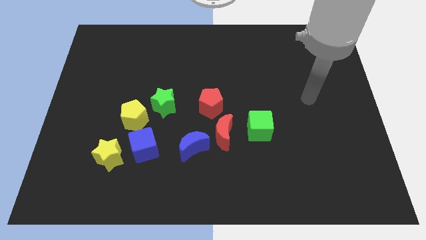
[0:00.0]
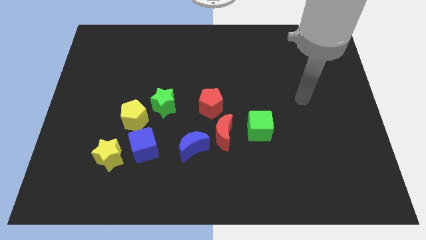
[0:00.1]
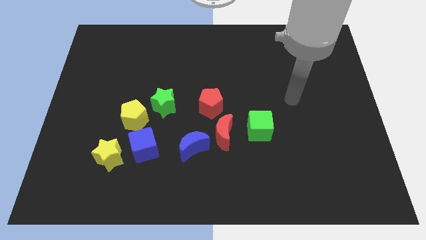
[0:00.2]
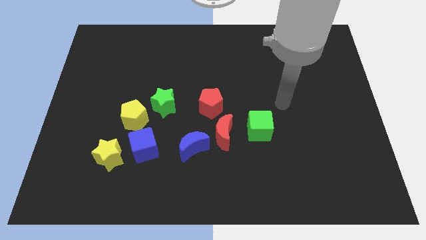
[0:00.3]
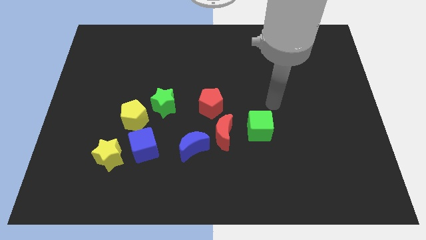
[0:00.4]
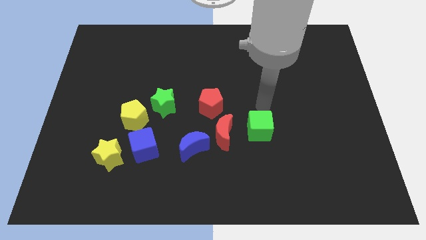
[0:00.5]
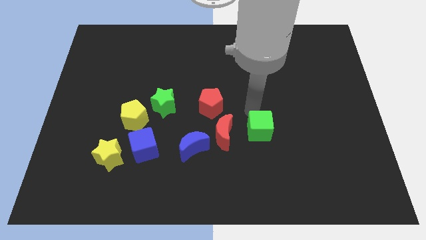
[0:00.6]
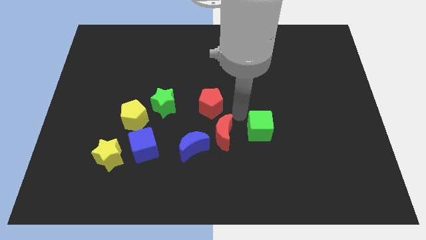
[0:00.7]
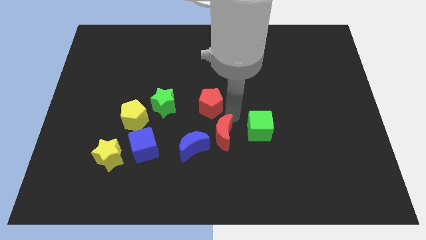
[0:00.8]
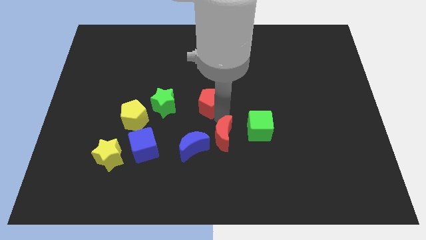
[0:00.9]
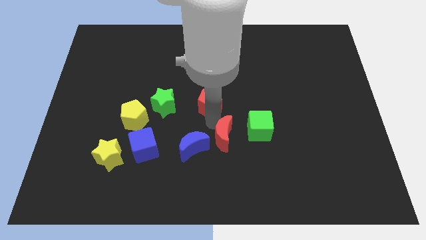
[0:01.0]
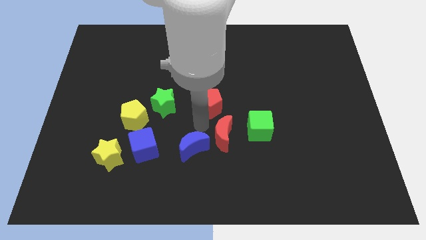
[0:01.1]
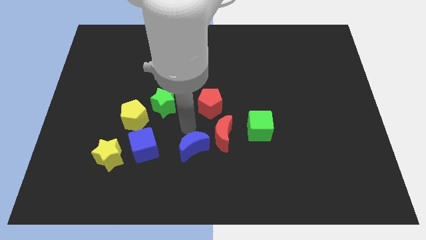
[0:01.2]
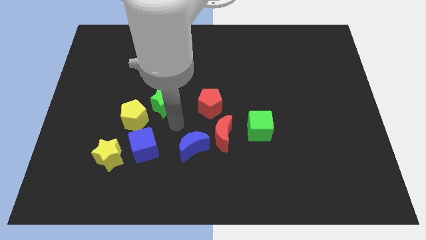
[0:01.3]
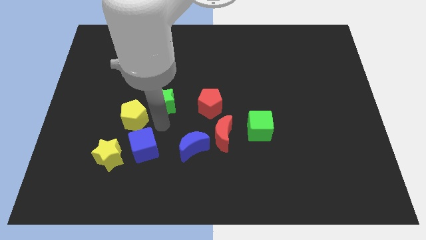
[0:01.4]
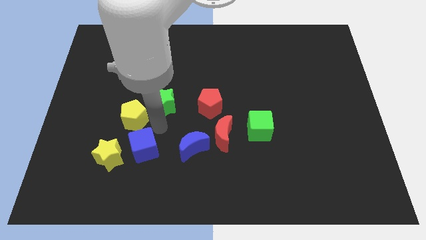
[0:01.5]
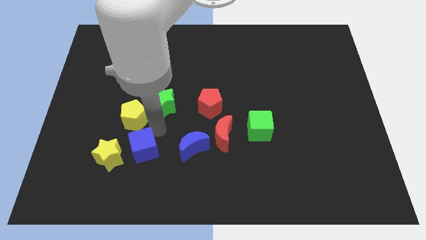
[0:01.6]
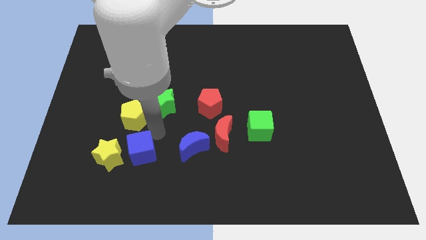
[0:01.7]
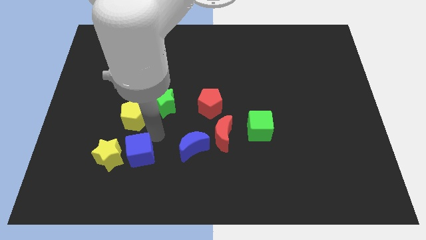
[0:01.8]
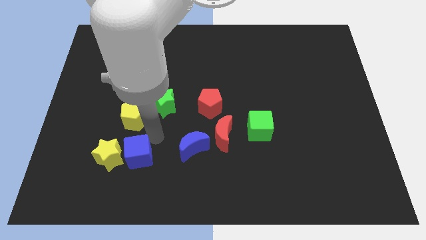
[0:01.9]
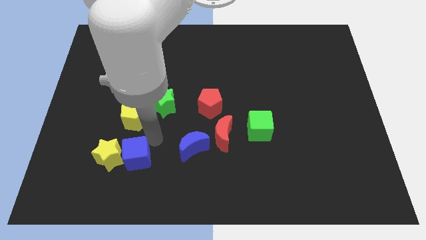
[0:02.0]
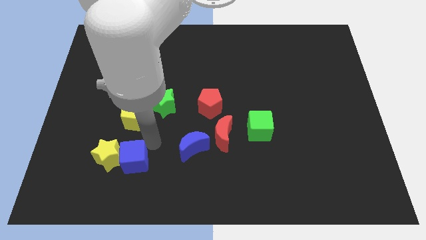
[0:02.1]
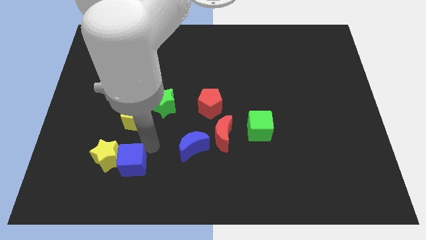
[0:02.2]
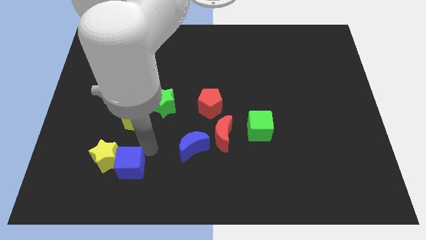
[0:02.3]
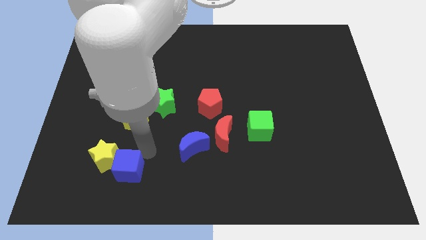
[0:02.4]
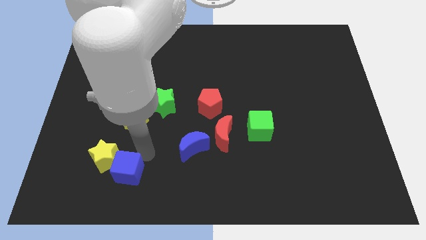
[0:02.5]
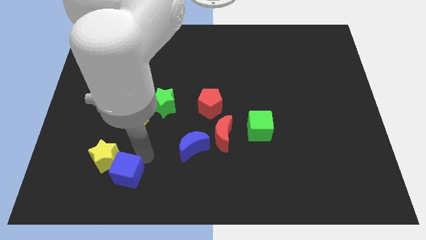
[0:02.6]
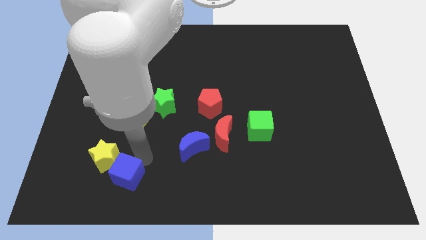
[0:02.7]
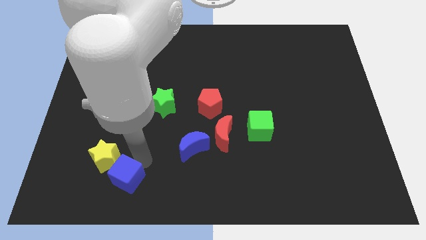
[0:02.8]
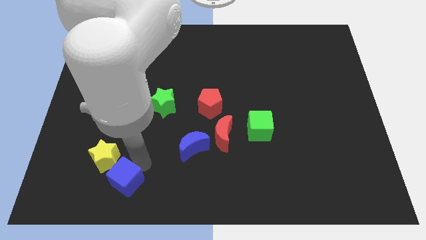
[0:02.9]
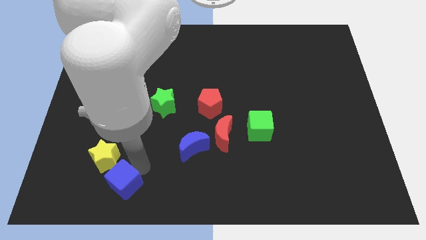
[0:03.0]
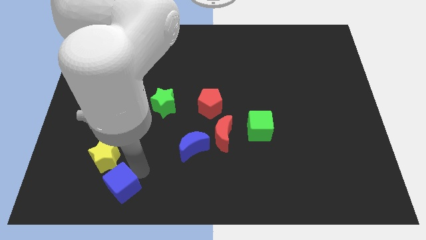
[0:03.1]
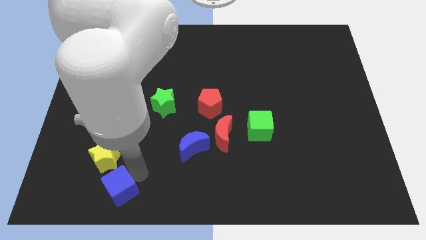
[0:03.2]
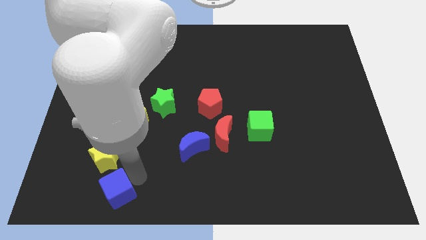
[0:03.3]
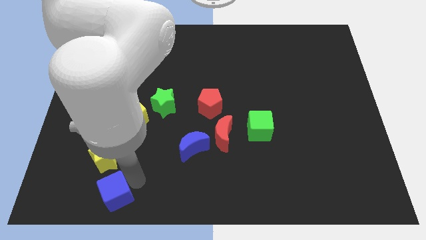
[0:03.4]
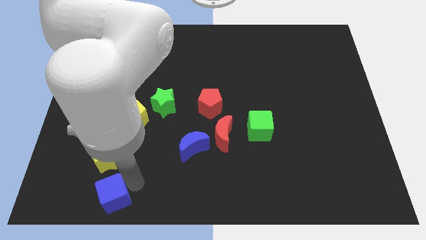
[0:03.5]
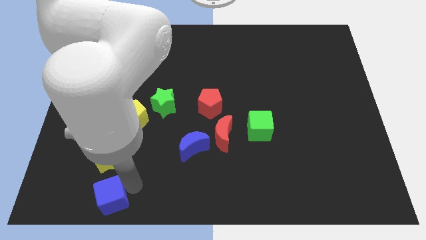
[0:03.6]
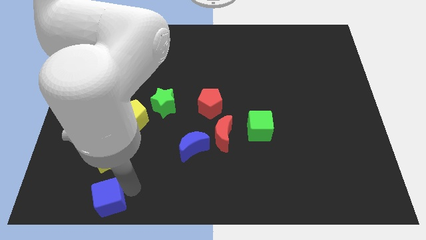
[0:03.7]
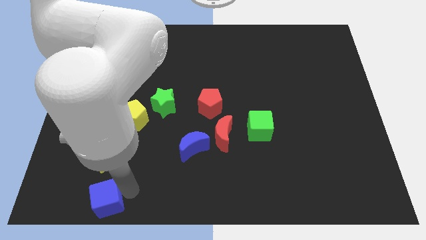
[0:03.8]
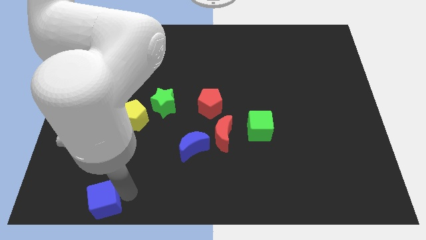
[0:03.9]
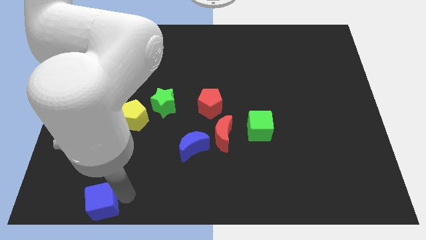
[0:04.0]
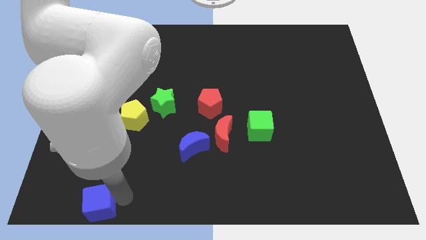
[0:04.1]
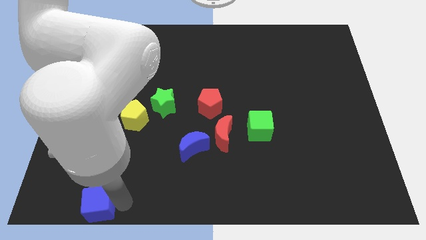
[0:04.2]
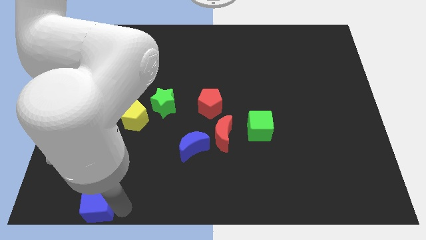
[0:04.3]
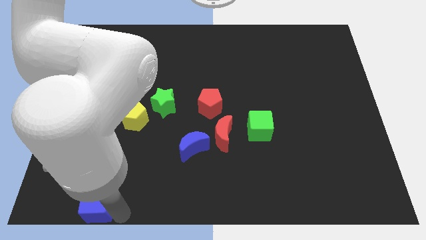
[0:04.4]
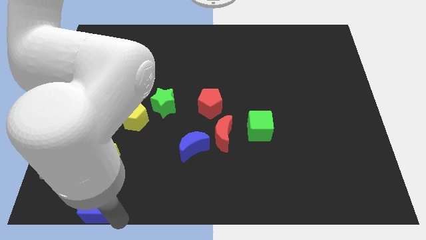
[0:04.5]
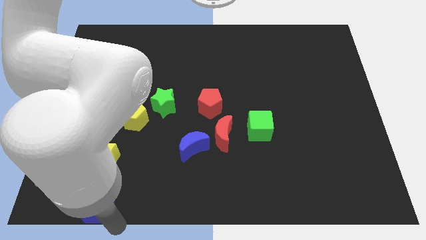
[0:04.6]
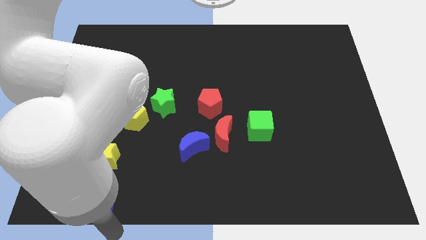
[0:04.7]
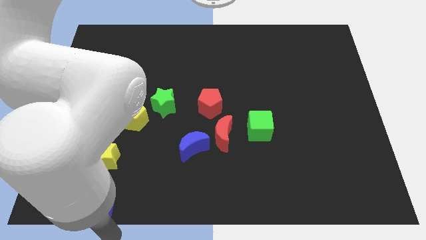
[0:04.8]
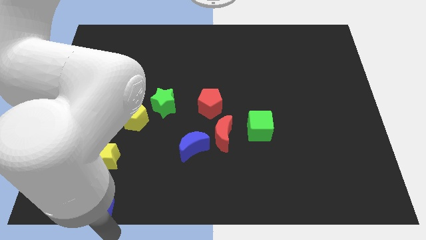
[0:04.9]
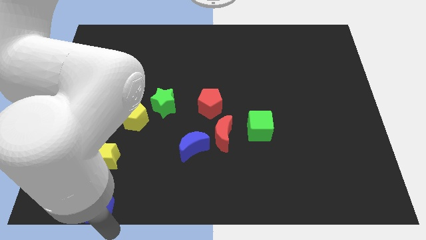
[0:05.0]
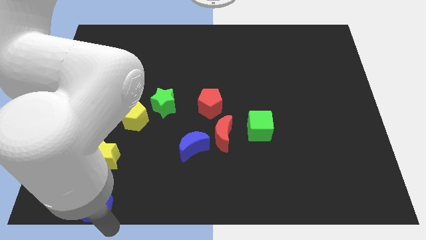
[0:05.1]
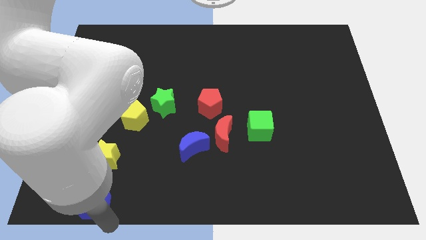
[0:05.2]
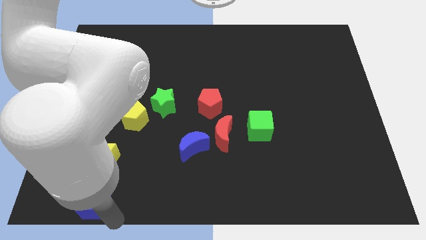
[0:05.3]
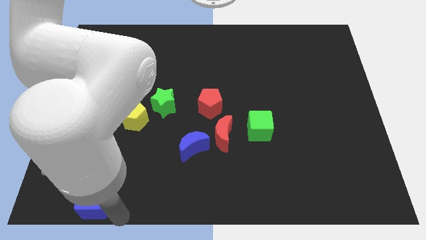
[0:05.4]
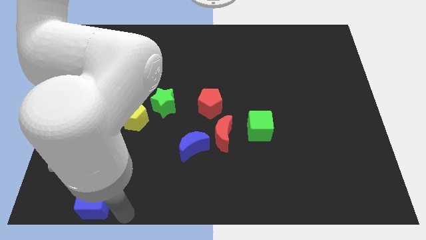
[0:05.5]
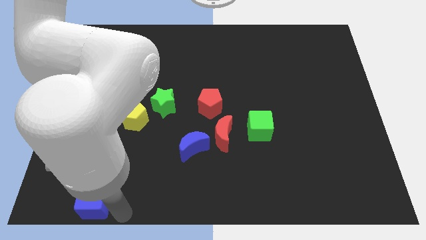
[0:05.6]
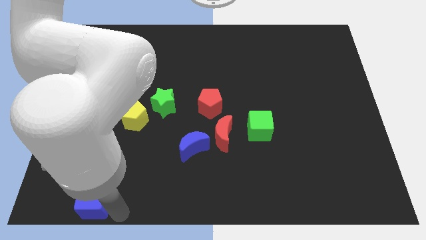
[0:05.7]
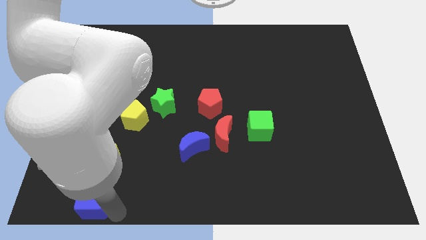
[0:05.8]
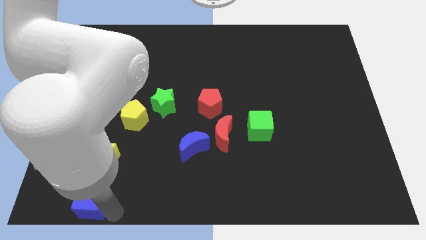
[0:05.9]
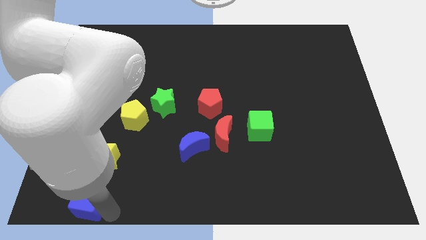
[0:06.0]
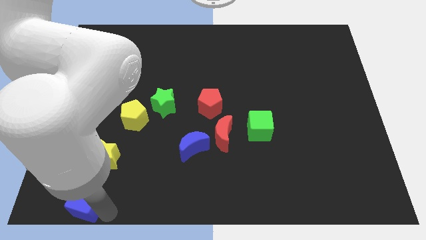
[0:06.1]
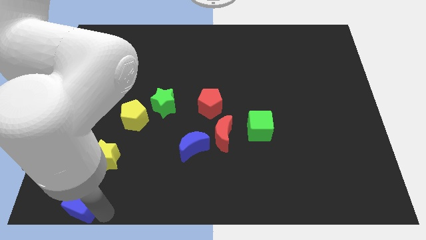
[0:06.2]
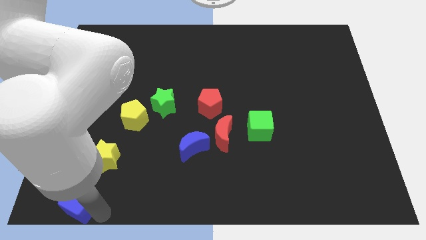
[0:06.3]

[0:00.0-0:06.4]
push the blue cube to the bottom left of the board
